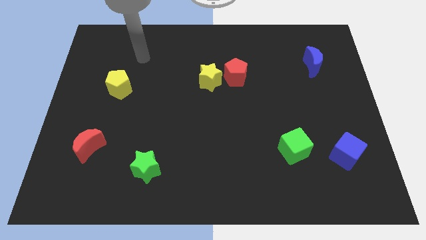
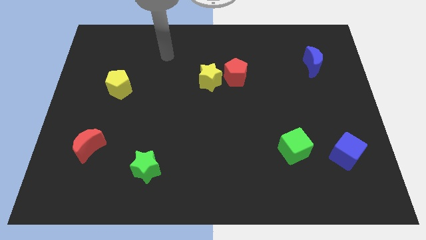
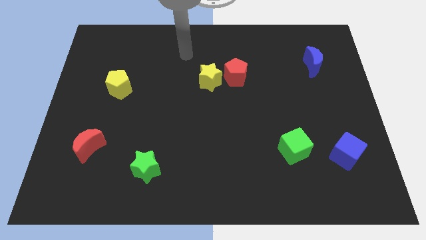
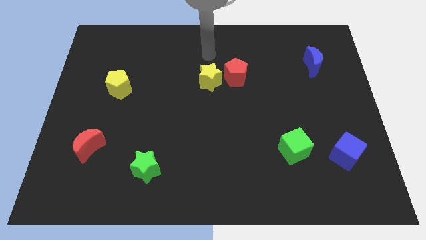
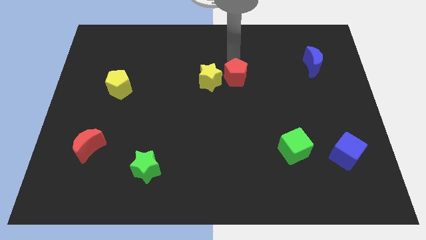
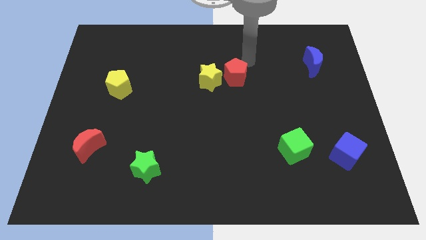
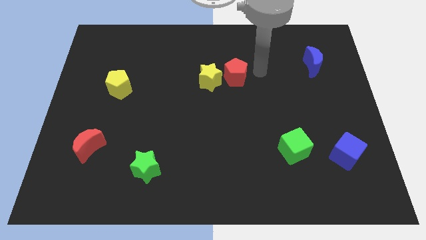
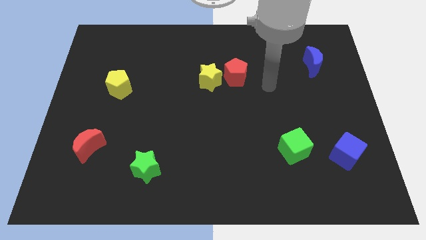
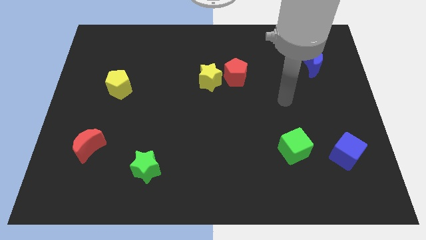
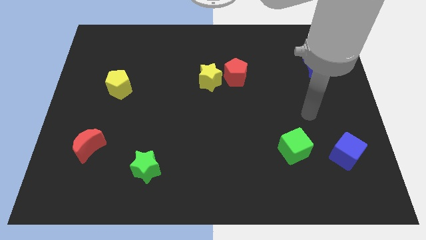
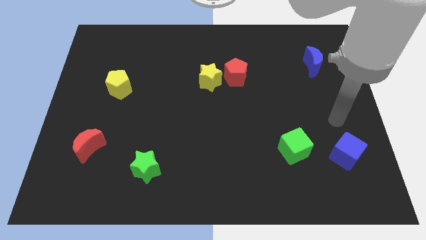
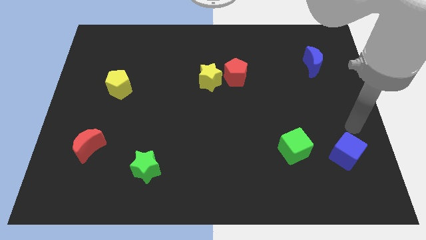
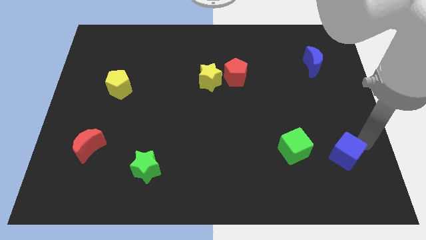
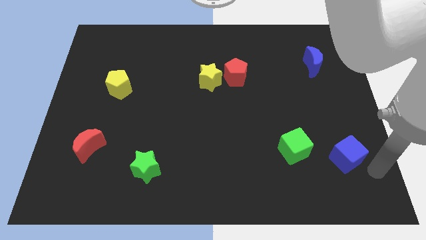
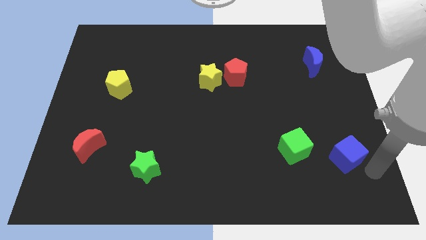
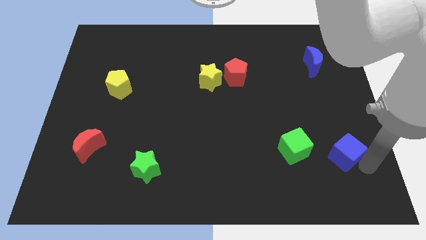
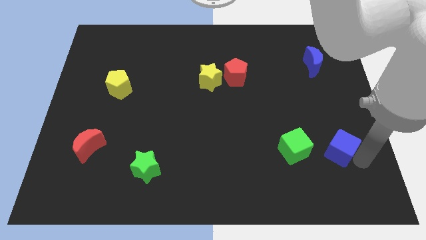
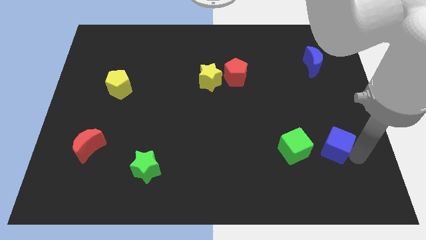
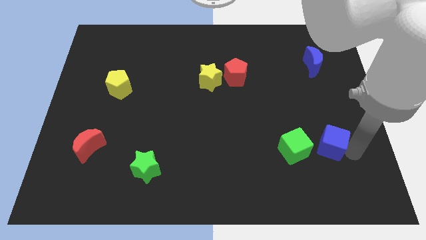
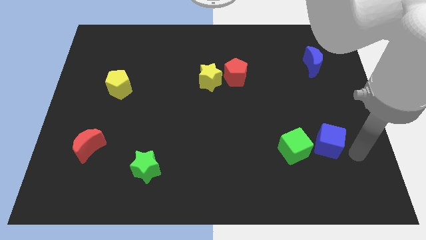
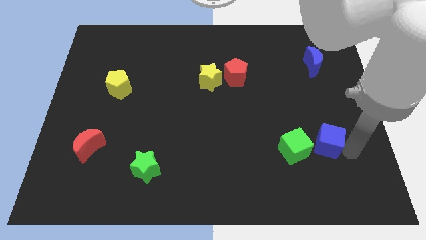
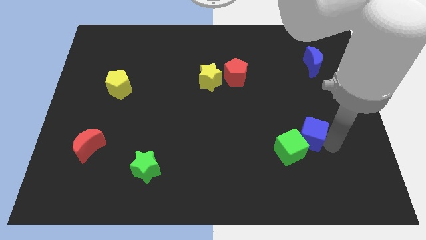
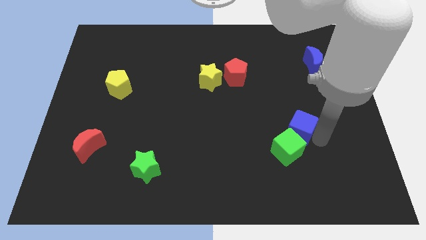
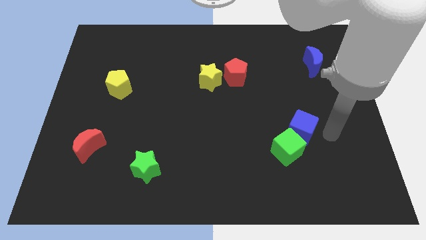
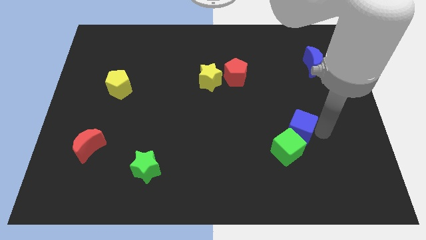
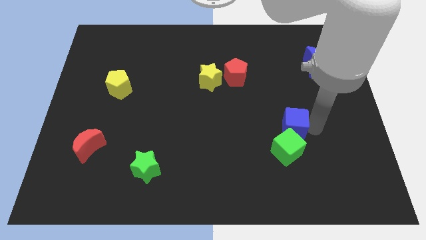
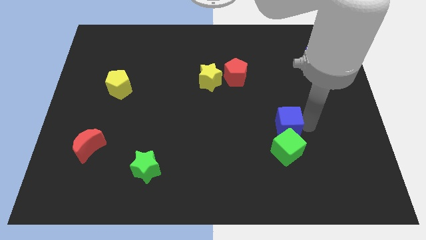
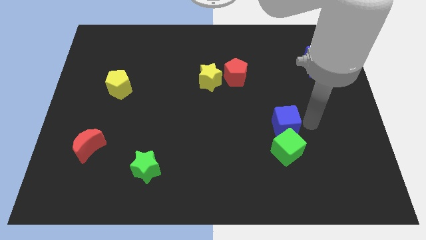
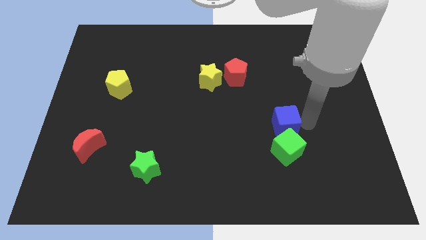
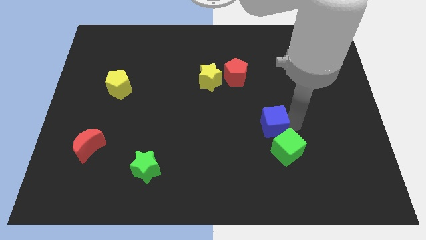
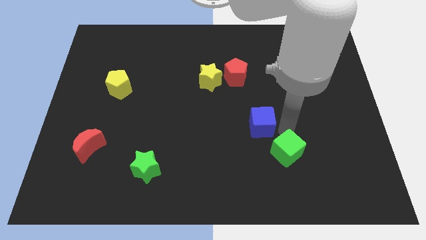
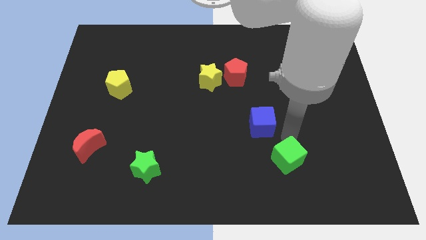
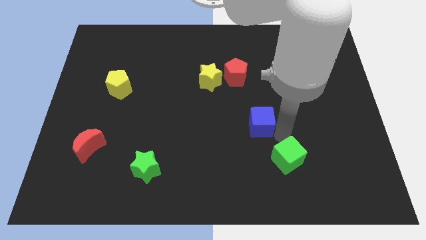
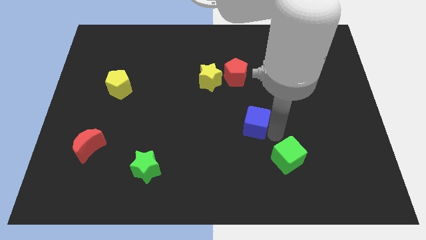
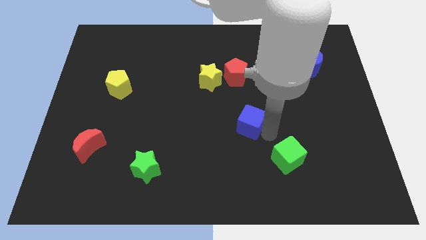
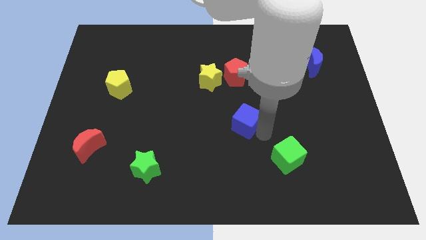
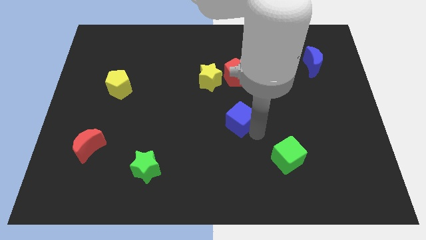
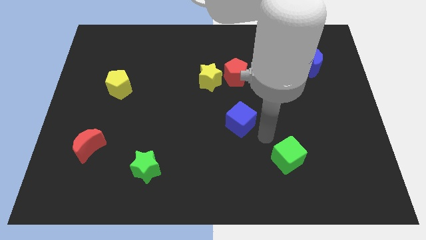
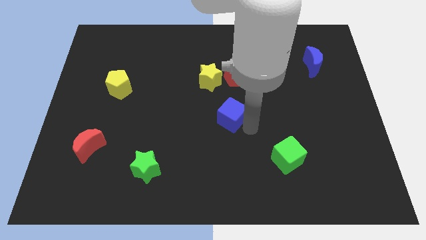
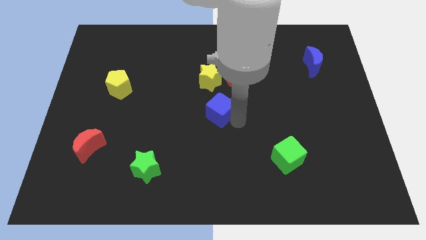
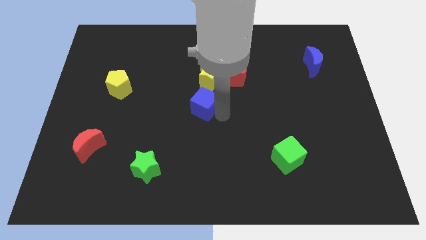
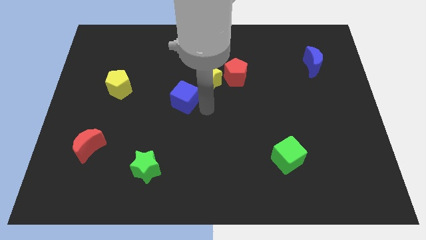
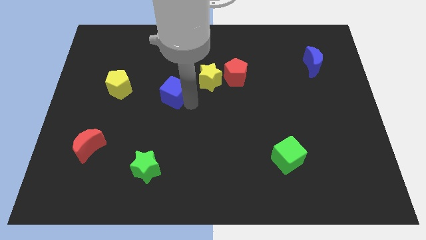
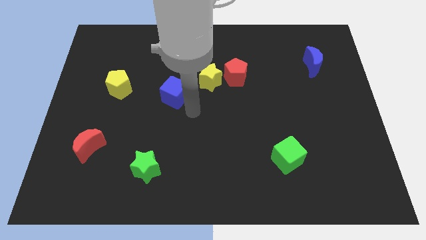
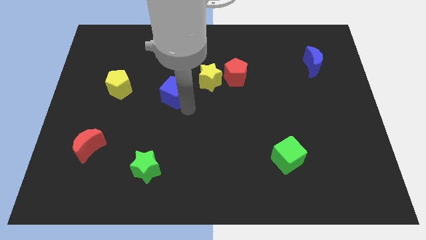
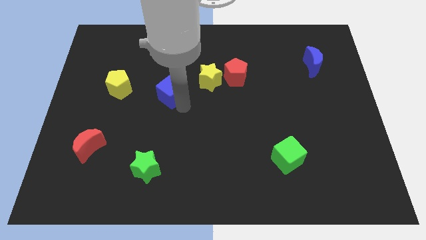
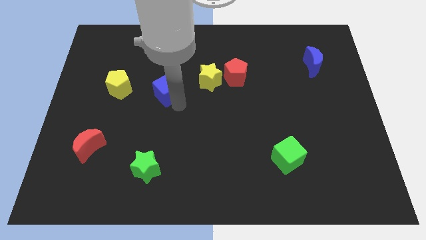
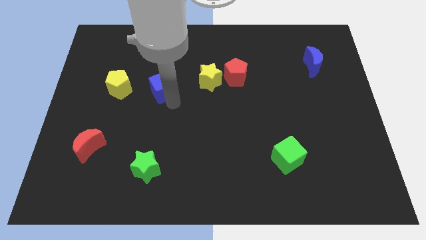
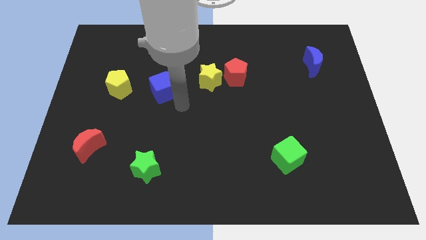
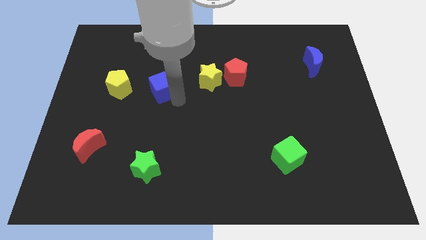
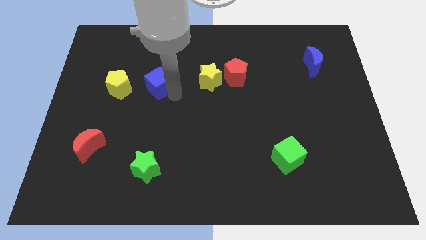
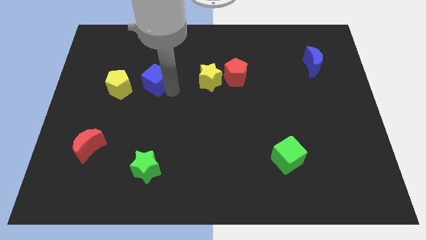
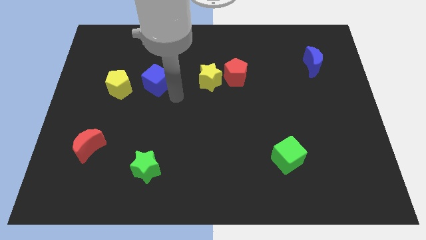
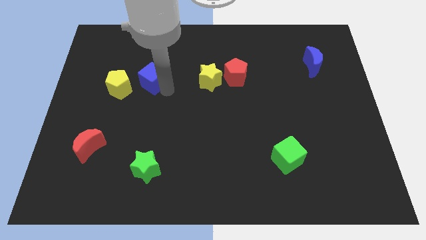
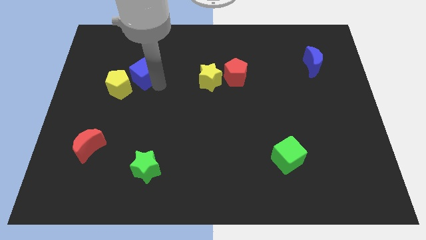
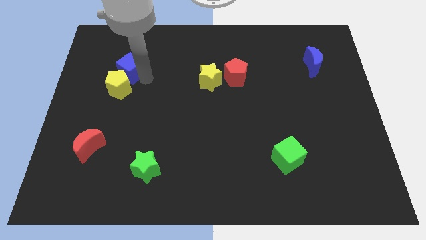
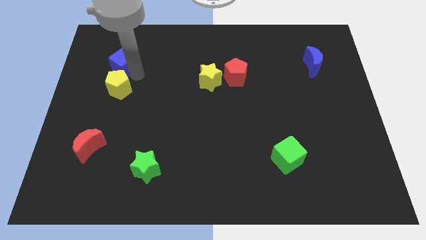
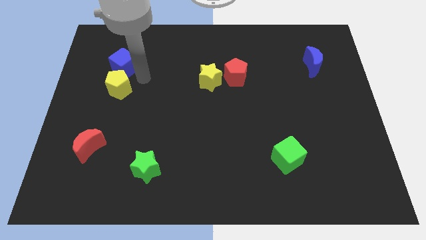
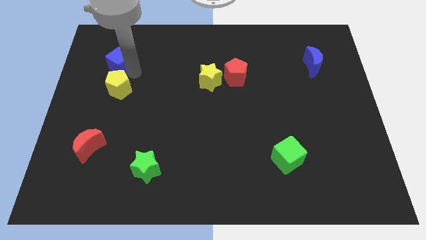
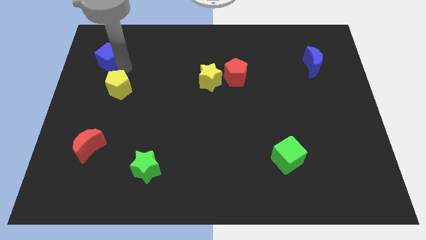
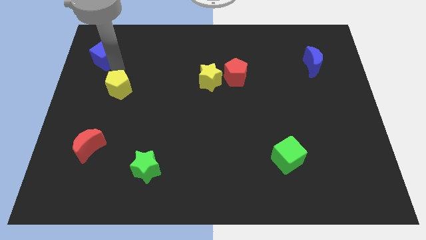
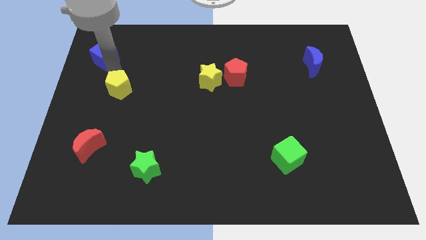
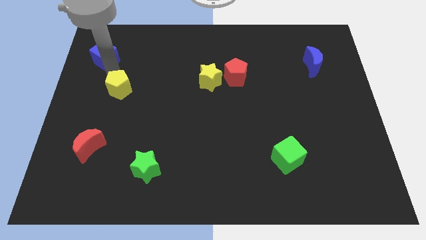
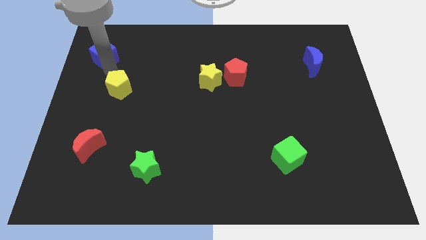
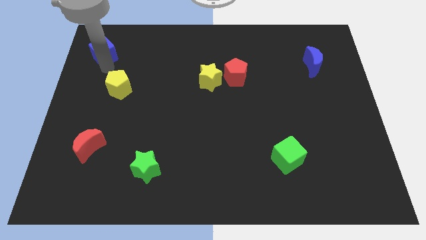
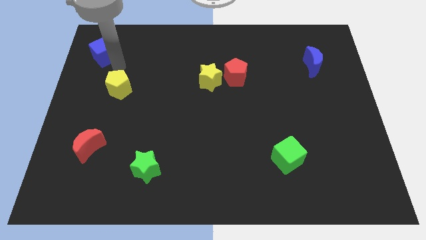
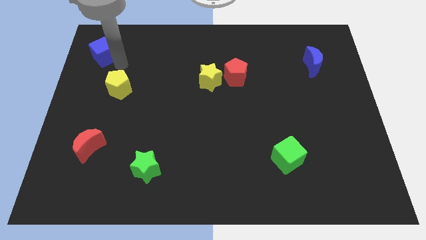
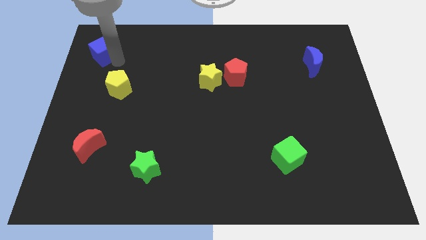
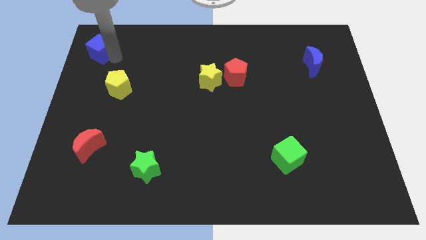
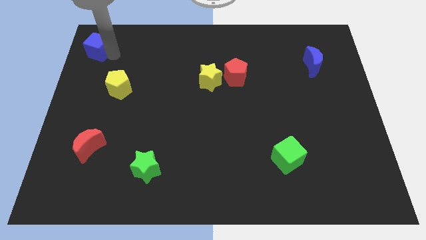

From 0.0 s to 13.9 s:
push the blue cube to the upper left corner
